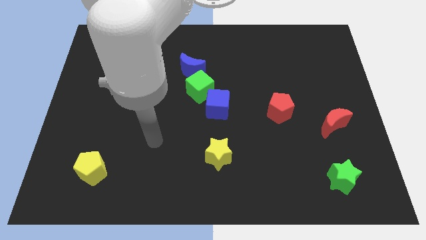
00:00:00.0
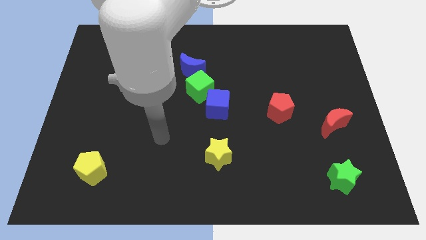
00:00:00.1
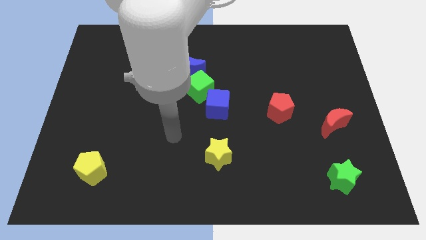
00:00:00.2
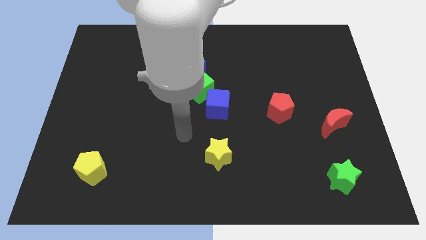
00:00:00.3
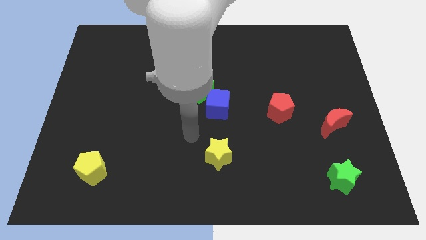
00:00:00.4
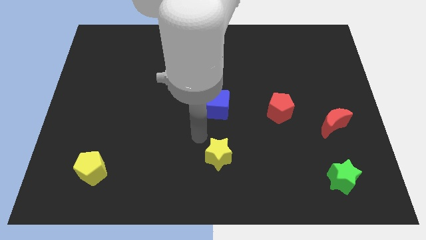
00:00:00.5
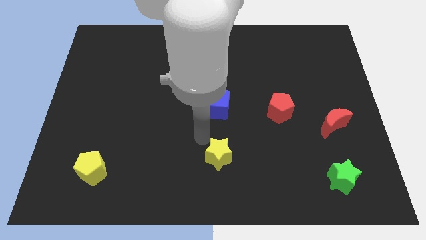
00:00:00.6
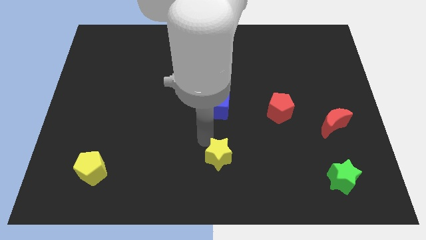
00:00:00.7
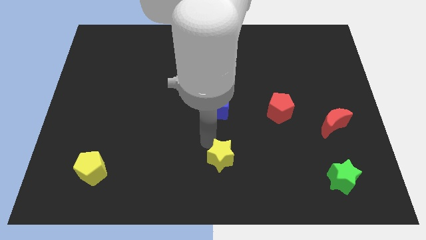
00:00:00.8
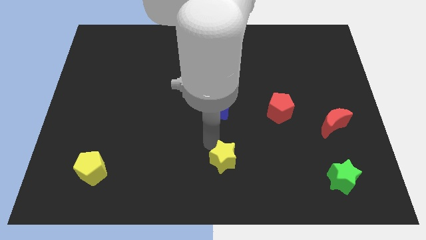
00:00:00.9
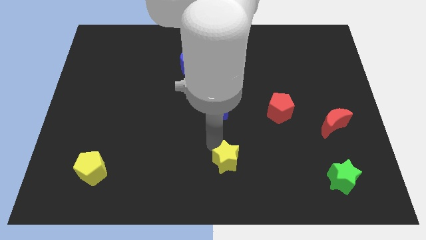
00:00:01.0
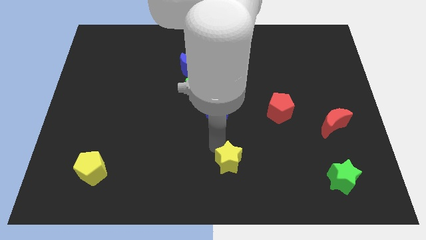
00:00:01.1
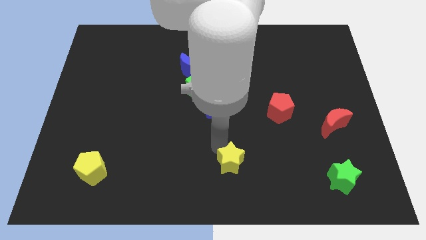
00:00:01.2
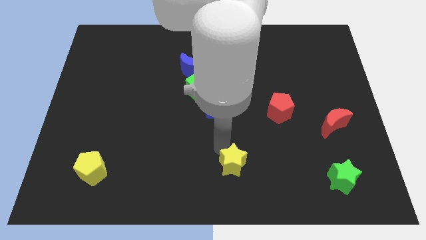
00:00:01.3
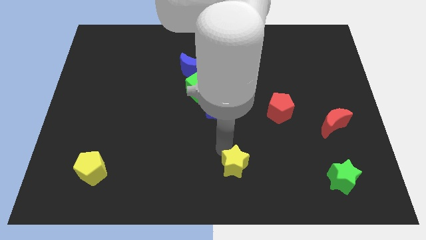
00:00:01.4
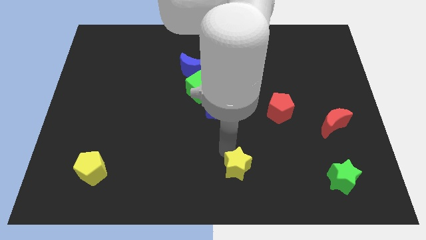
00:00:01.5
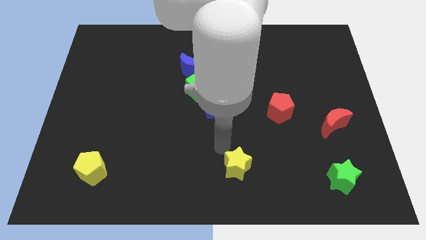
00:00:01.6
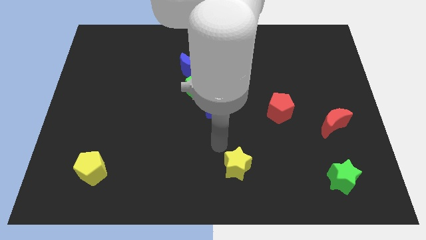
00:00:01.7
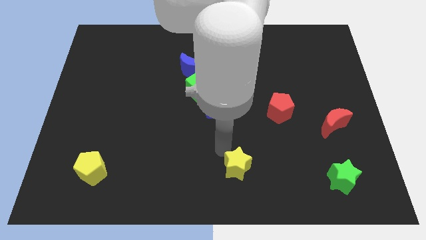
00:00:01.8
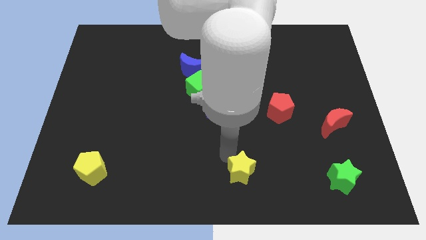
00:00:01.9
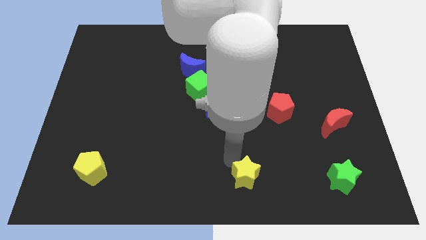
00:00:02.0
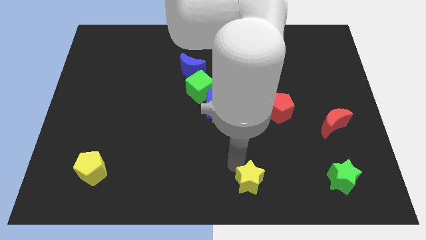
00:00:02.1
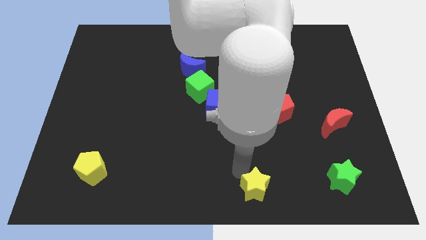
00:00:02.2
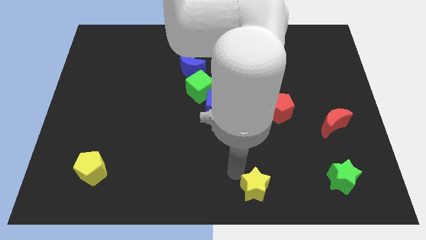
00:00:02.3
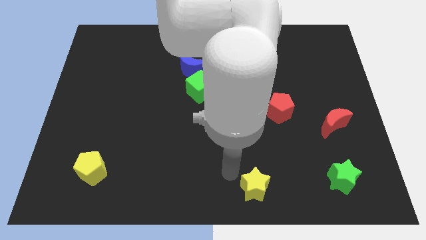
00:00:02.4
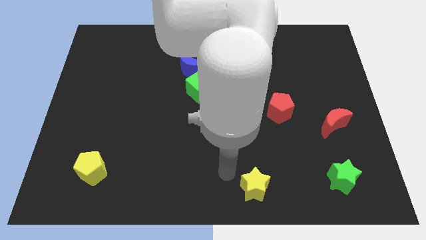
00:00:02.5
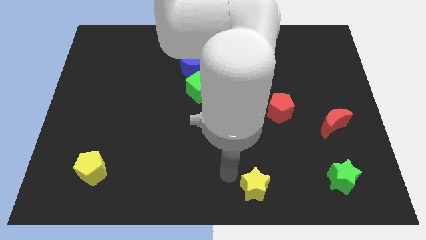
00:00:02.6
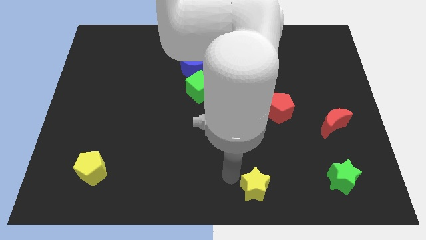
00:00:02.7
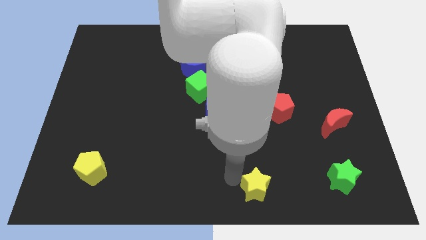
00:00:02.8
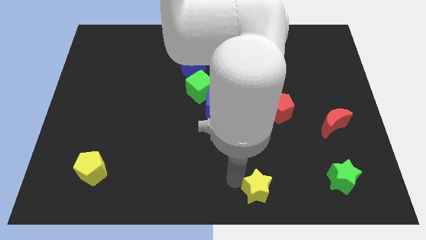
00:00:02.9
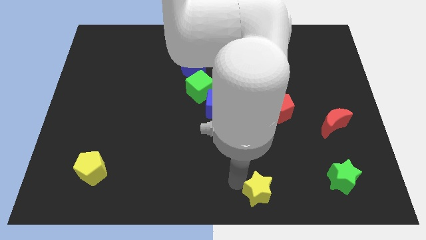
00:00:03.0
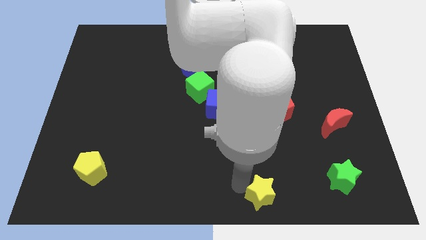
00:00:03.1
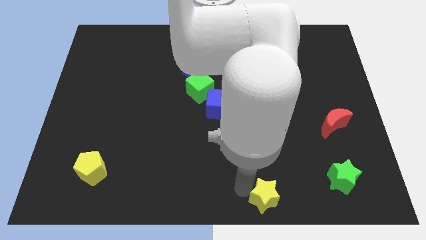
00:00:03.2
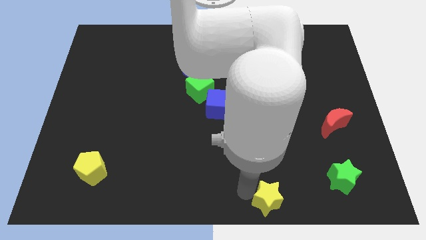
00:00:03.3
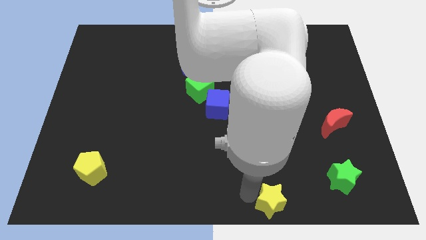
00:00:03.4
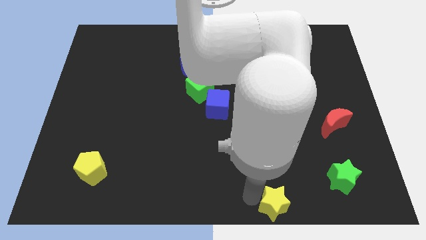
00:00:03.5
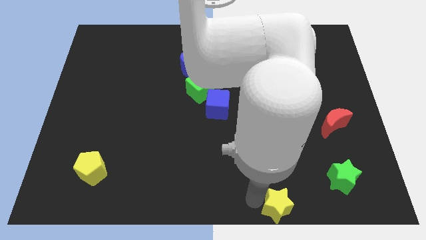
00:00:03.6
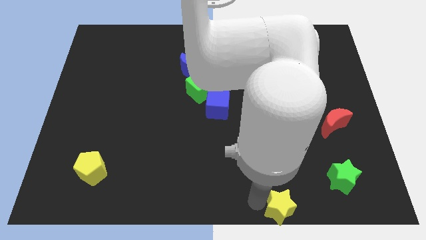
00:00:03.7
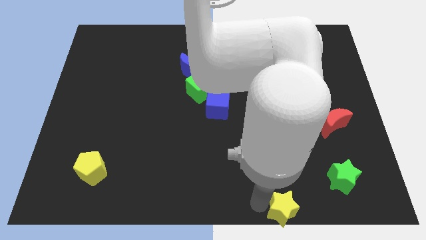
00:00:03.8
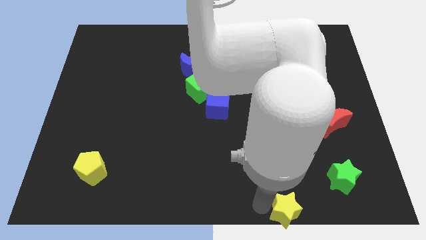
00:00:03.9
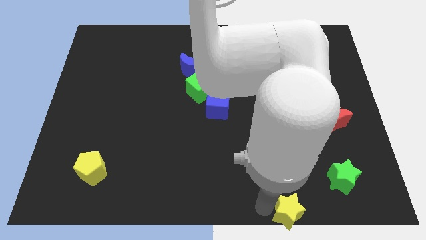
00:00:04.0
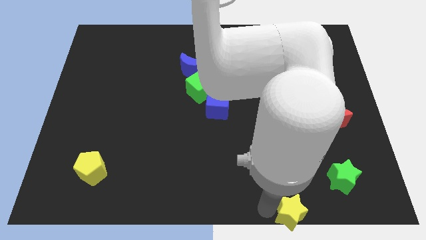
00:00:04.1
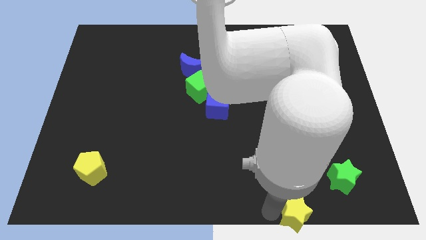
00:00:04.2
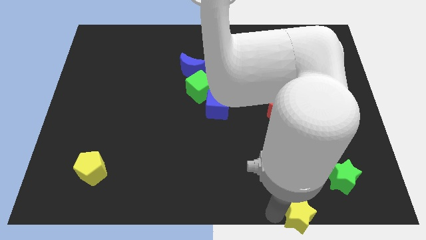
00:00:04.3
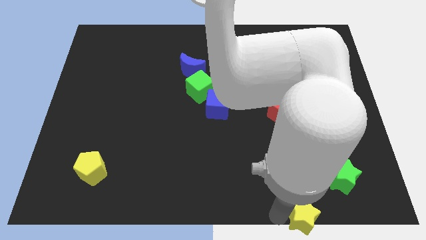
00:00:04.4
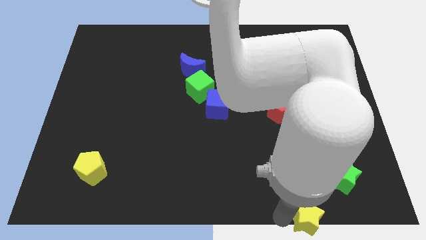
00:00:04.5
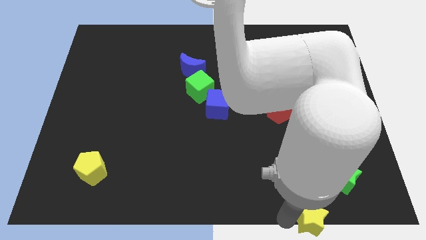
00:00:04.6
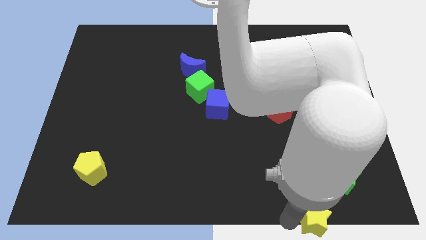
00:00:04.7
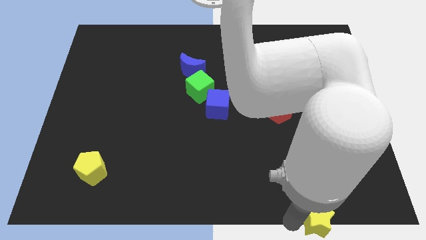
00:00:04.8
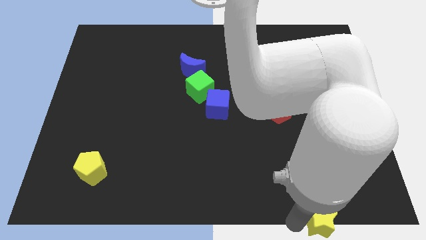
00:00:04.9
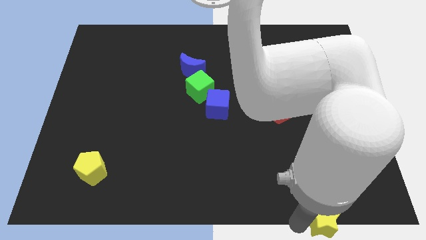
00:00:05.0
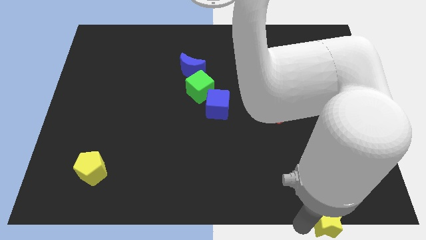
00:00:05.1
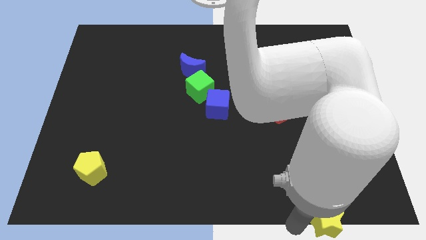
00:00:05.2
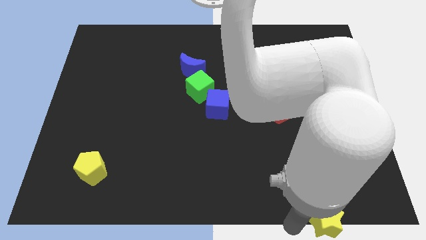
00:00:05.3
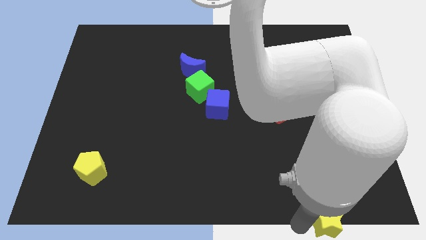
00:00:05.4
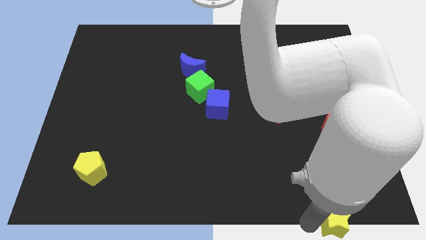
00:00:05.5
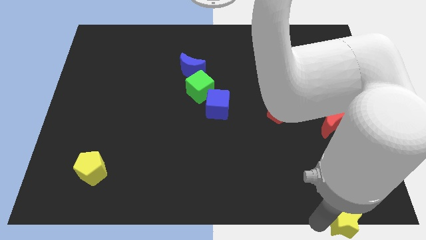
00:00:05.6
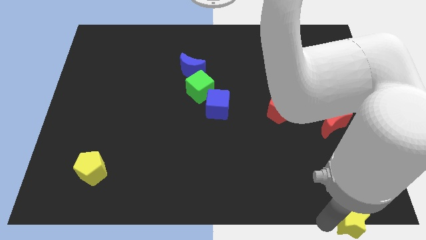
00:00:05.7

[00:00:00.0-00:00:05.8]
move the yellow star to the bottom right
